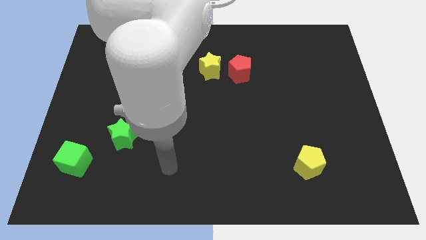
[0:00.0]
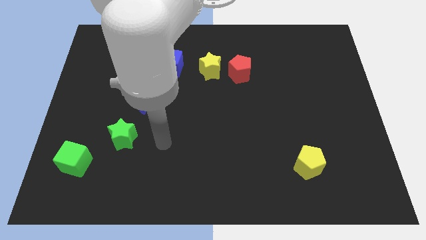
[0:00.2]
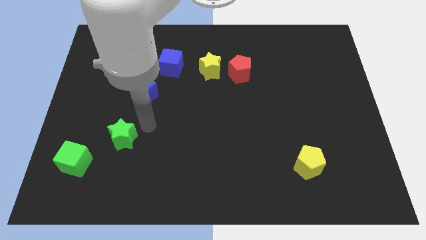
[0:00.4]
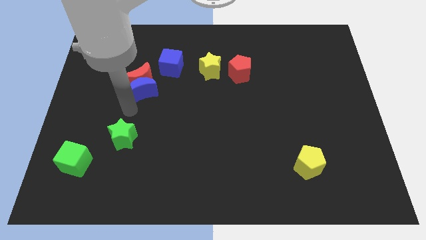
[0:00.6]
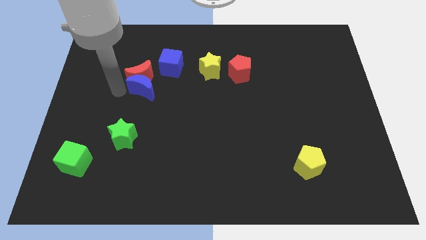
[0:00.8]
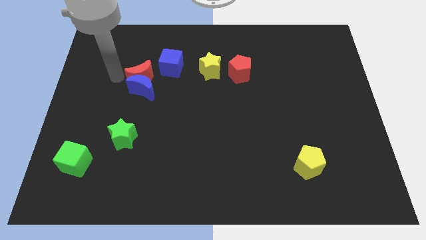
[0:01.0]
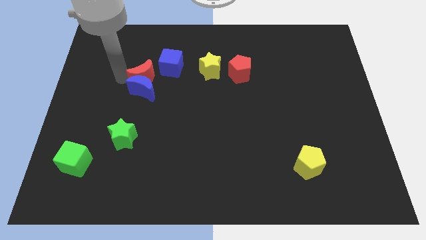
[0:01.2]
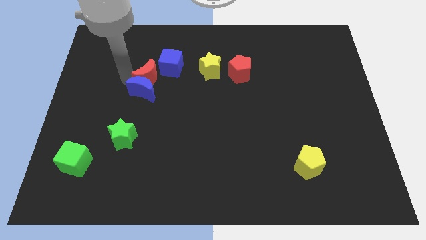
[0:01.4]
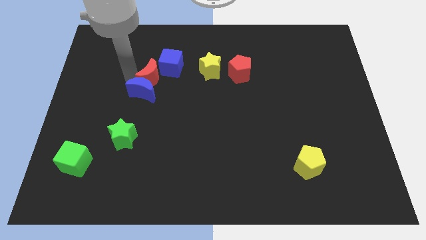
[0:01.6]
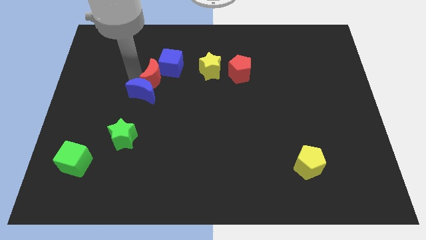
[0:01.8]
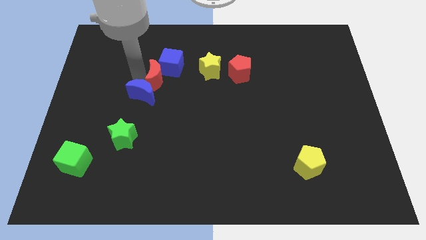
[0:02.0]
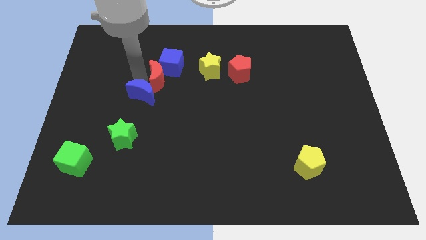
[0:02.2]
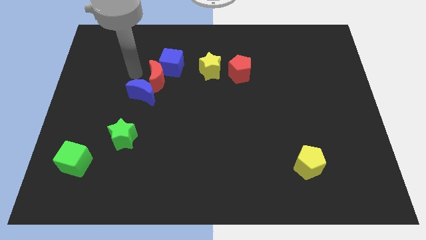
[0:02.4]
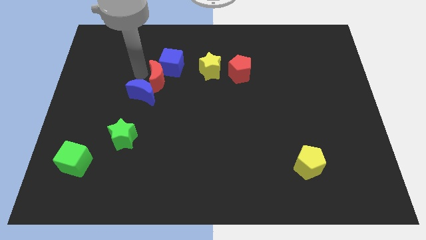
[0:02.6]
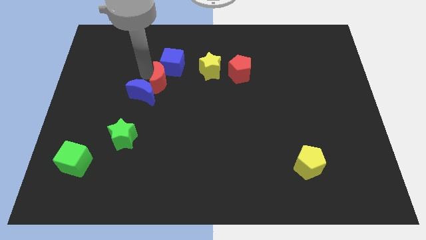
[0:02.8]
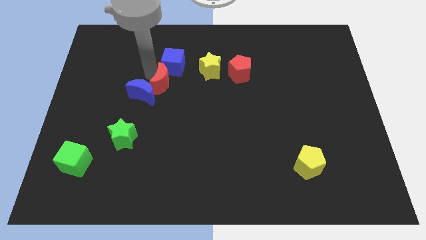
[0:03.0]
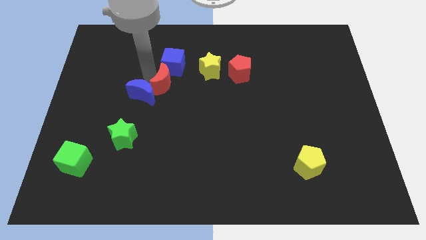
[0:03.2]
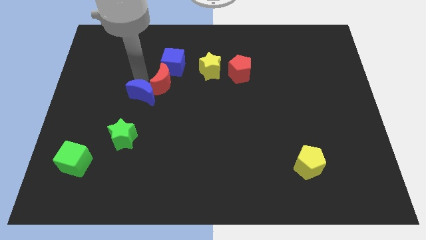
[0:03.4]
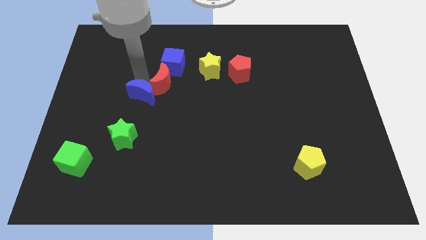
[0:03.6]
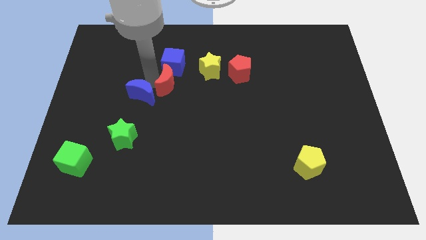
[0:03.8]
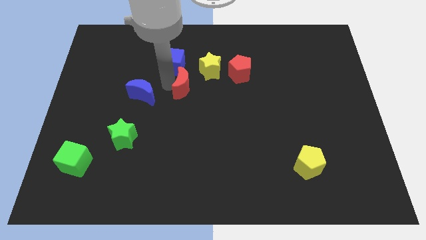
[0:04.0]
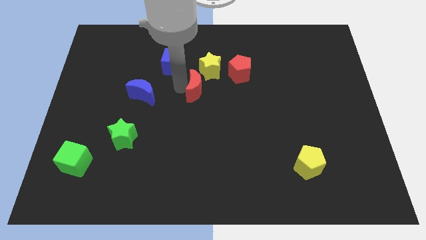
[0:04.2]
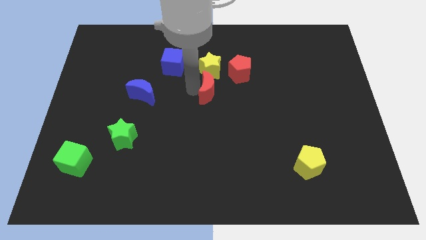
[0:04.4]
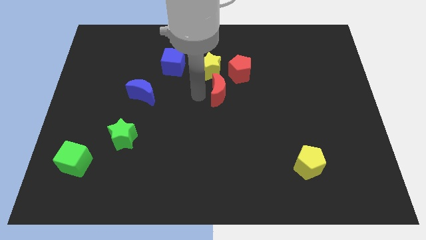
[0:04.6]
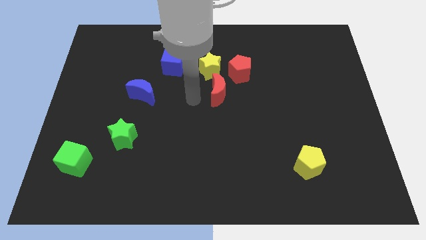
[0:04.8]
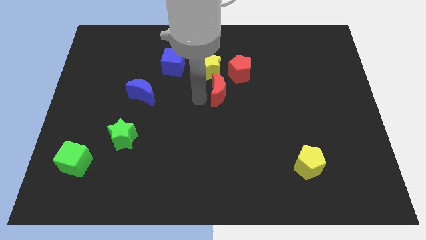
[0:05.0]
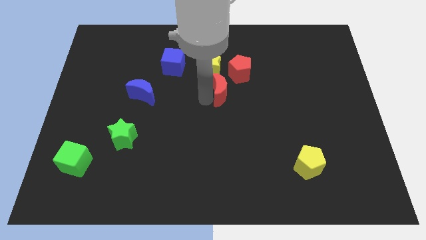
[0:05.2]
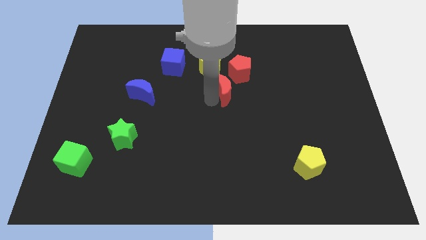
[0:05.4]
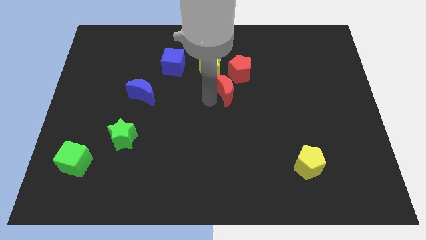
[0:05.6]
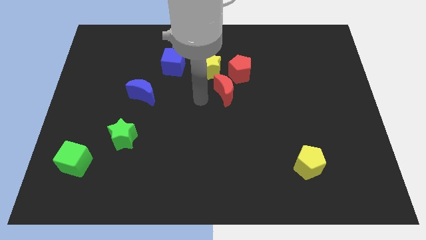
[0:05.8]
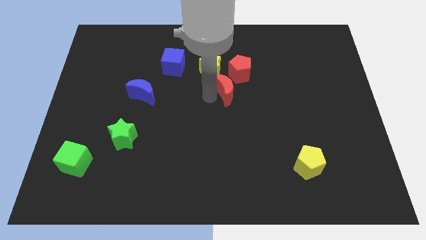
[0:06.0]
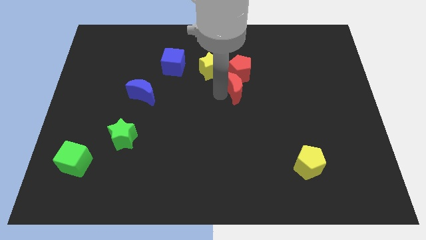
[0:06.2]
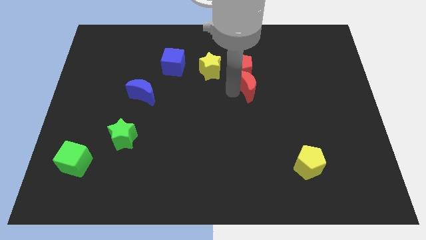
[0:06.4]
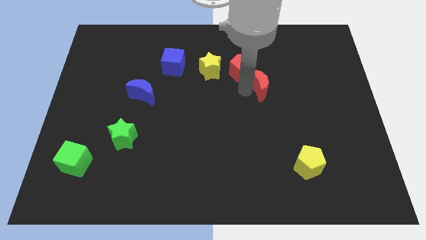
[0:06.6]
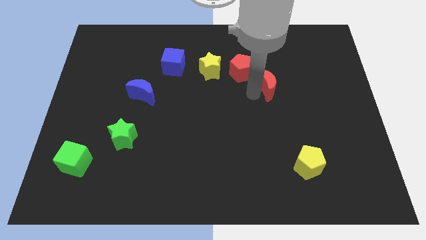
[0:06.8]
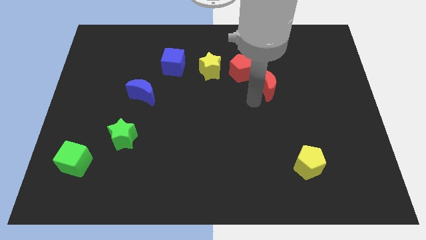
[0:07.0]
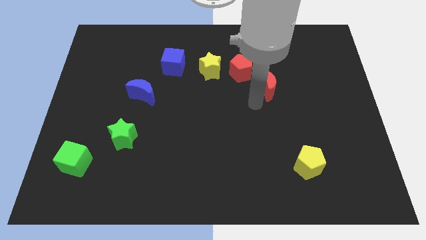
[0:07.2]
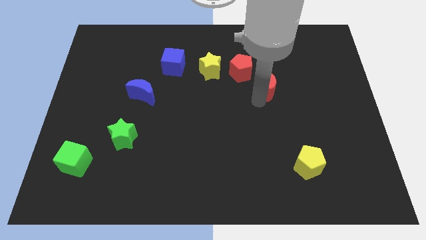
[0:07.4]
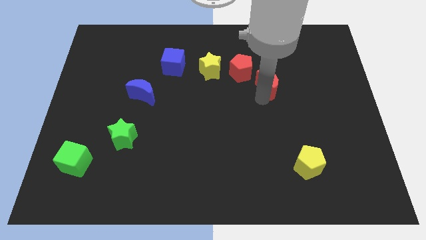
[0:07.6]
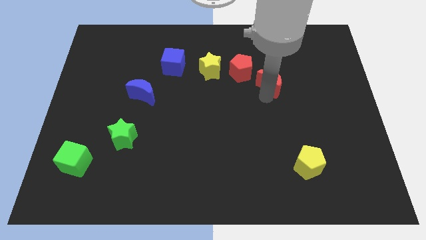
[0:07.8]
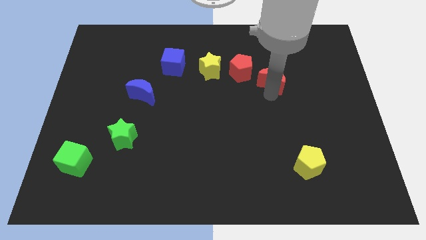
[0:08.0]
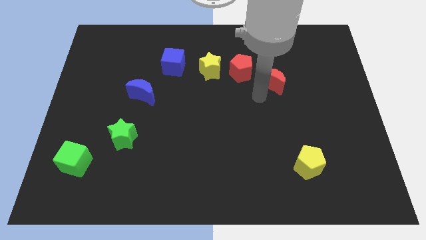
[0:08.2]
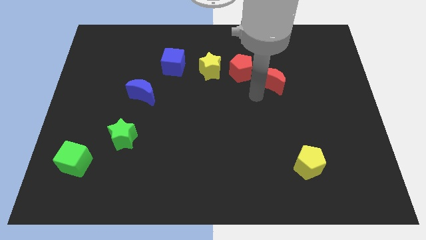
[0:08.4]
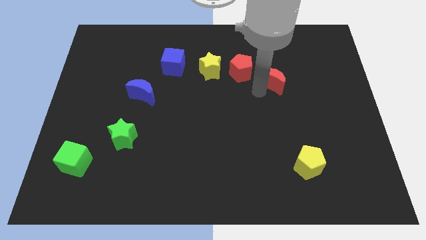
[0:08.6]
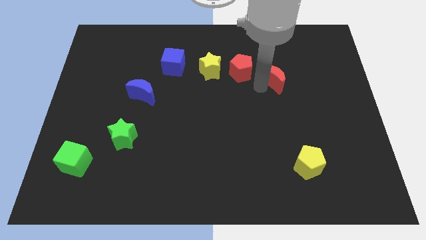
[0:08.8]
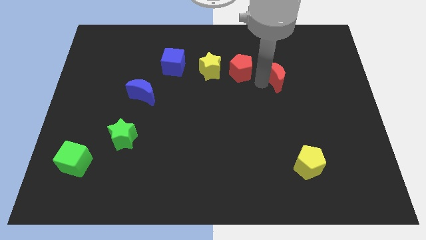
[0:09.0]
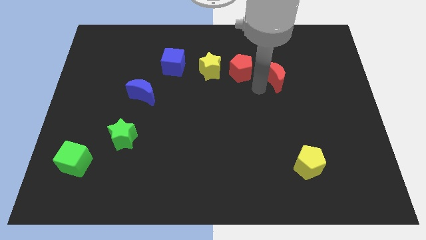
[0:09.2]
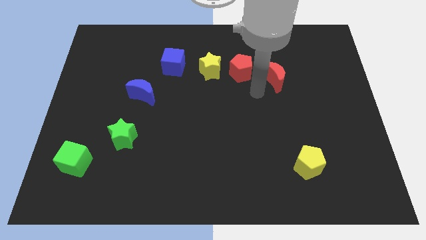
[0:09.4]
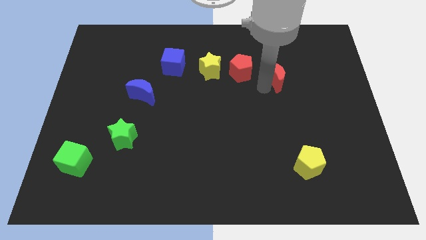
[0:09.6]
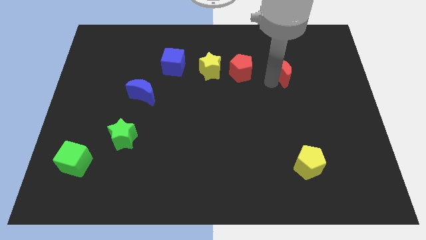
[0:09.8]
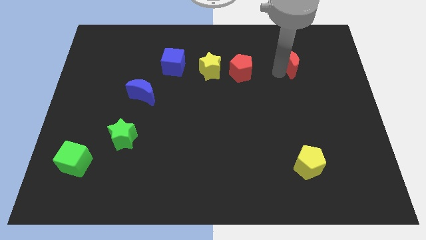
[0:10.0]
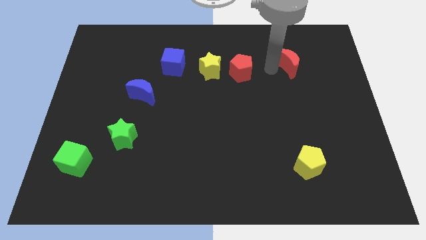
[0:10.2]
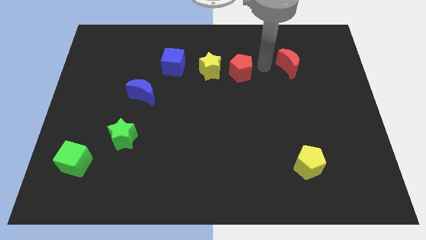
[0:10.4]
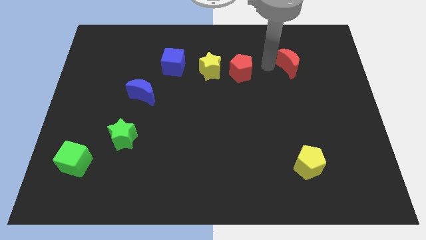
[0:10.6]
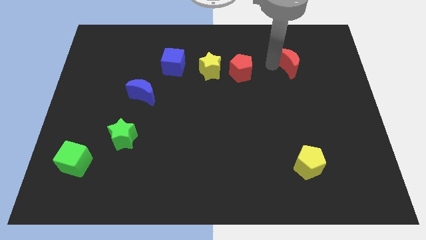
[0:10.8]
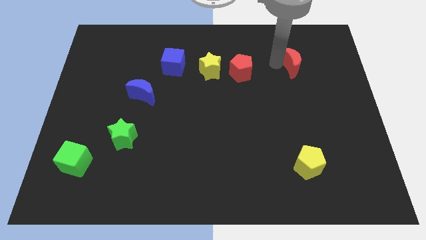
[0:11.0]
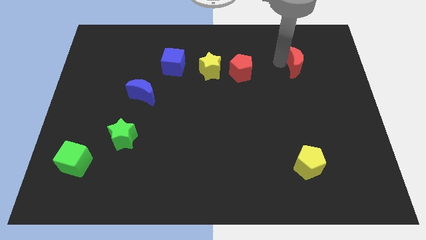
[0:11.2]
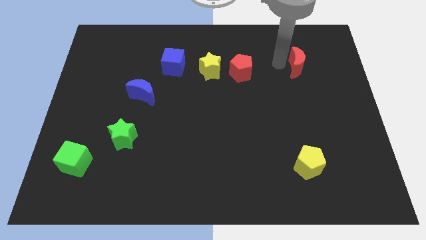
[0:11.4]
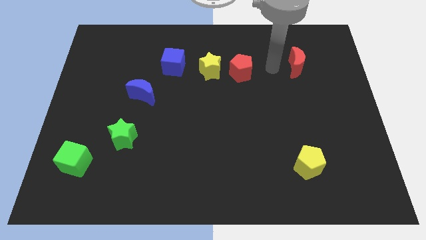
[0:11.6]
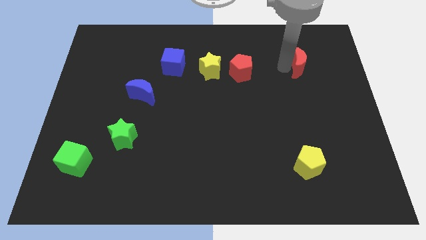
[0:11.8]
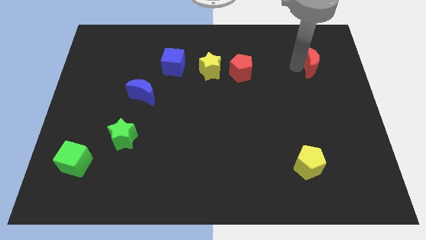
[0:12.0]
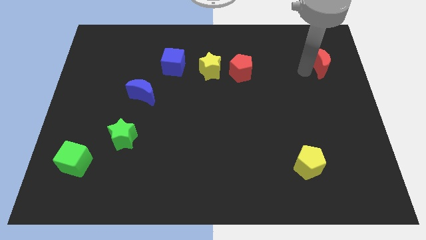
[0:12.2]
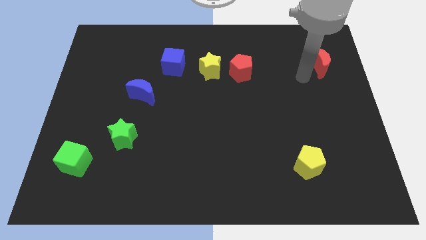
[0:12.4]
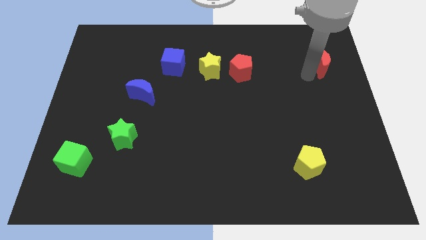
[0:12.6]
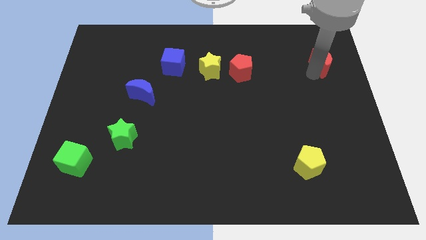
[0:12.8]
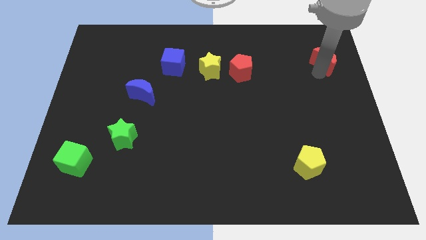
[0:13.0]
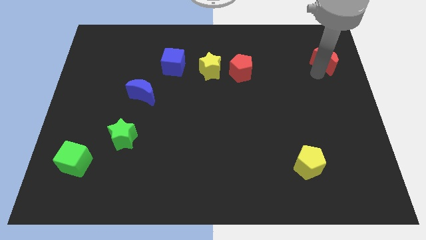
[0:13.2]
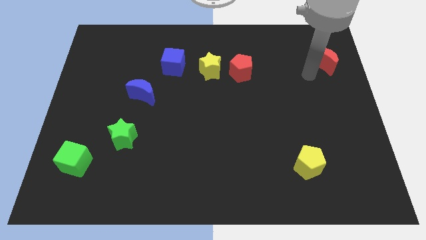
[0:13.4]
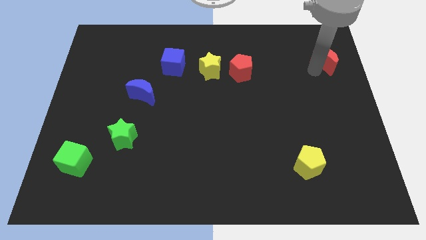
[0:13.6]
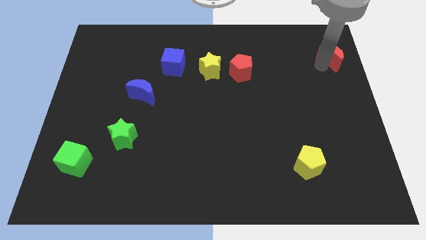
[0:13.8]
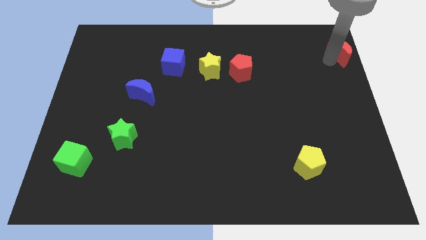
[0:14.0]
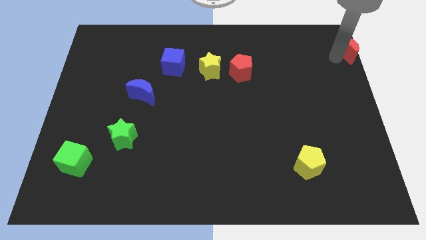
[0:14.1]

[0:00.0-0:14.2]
push the red moon to the top right

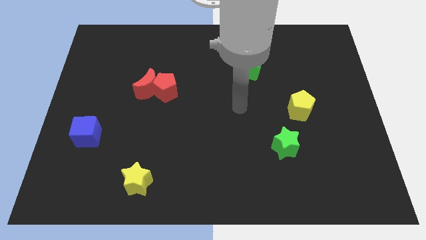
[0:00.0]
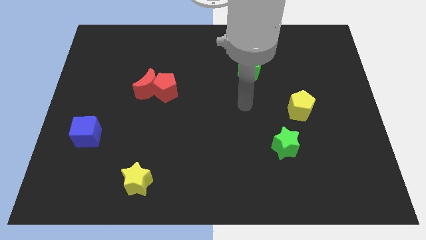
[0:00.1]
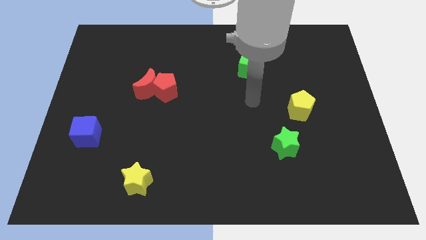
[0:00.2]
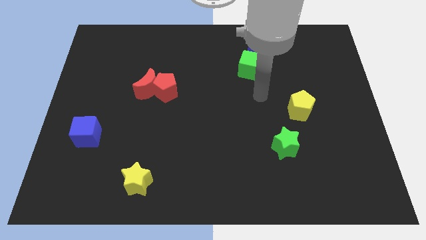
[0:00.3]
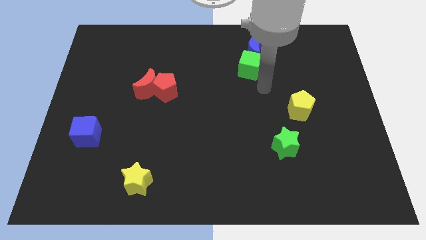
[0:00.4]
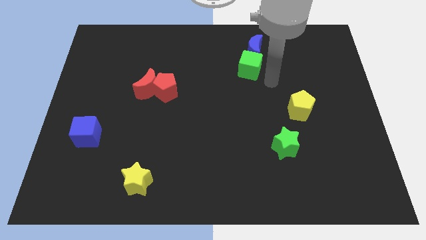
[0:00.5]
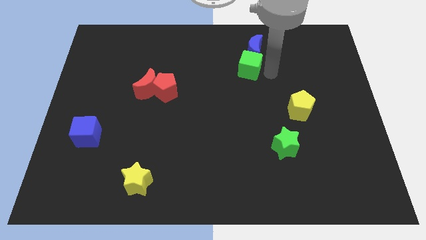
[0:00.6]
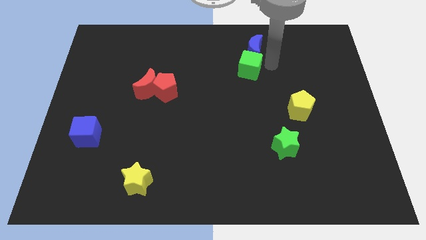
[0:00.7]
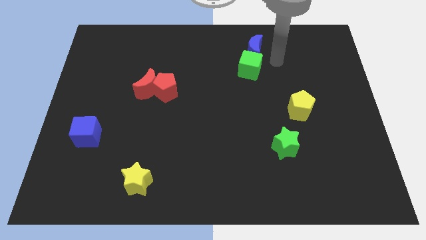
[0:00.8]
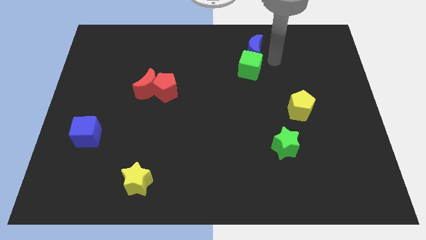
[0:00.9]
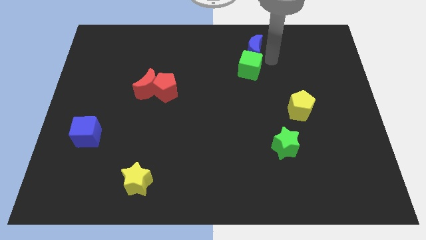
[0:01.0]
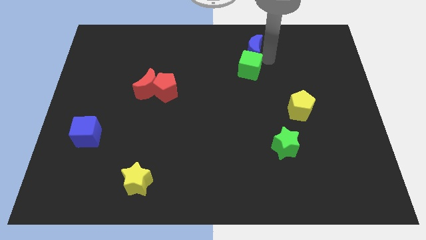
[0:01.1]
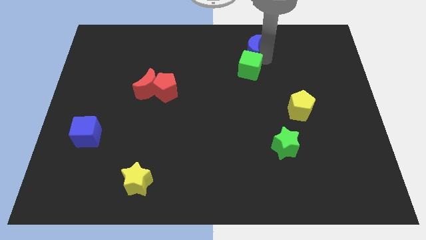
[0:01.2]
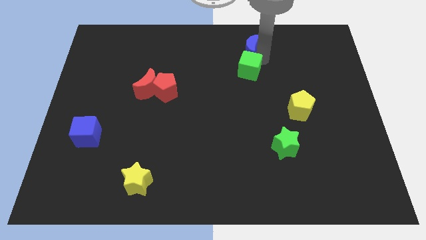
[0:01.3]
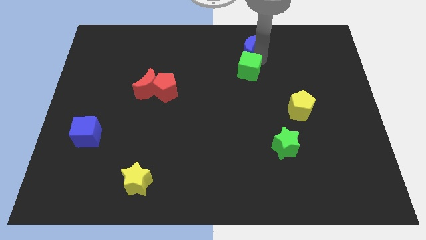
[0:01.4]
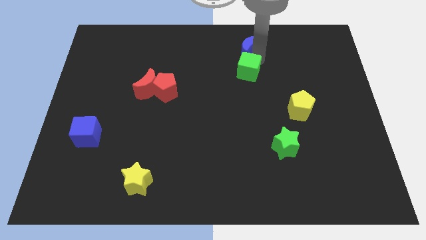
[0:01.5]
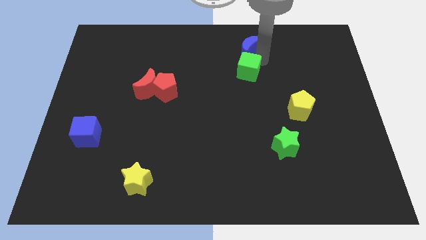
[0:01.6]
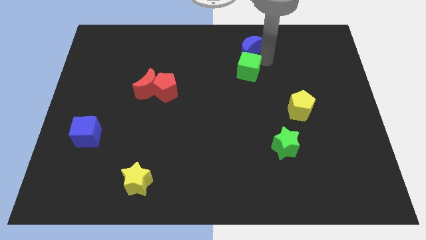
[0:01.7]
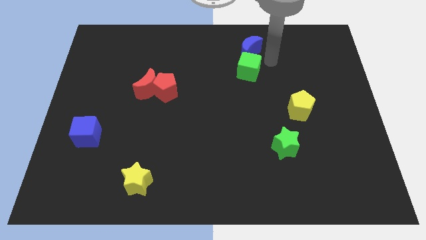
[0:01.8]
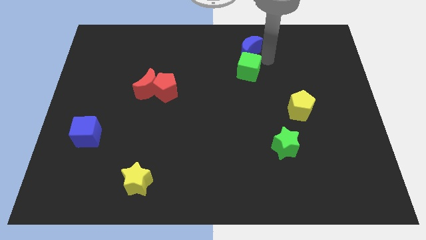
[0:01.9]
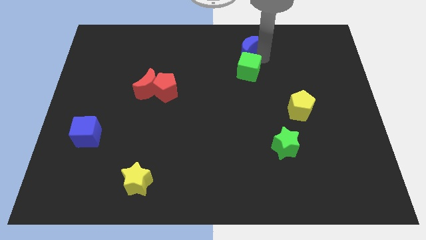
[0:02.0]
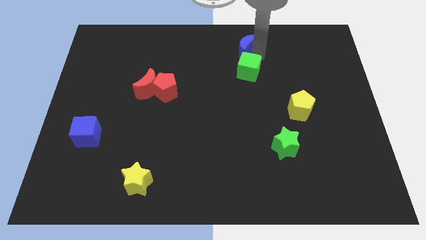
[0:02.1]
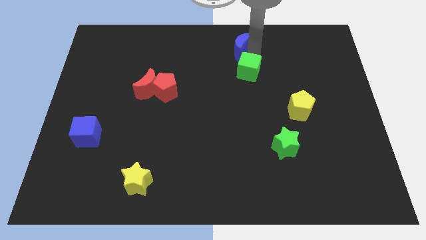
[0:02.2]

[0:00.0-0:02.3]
move the blue moon to the top
